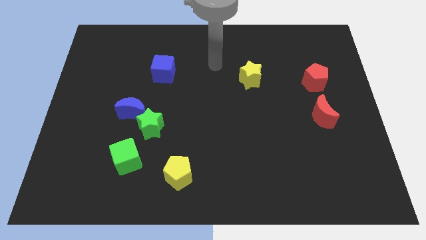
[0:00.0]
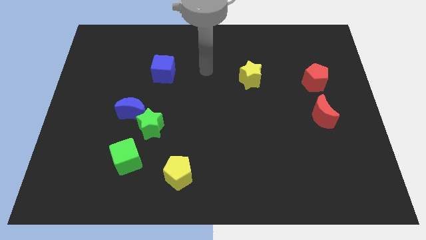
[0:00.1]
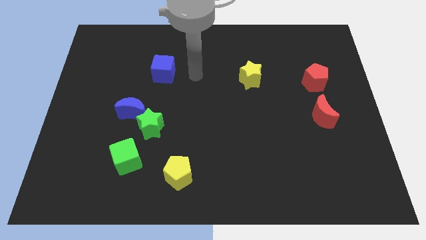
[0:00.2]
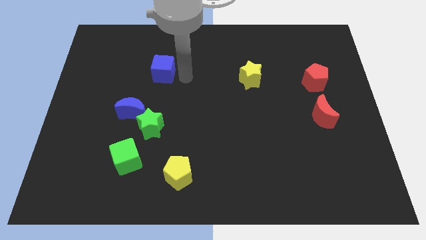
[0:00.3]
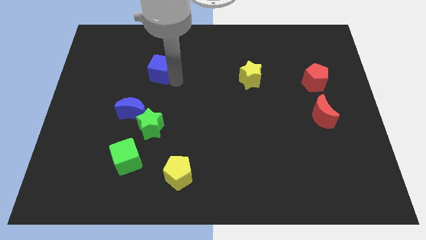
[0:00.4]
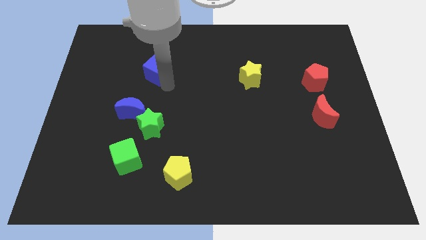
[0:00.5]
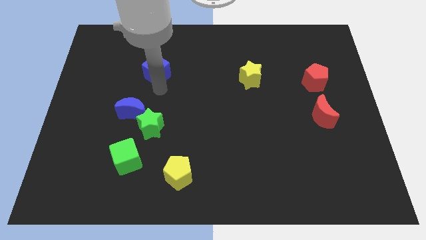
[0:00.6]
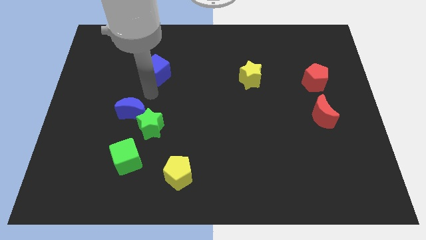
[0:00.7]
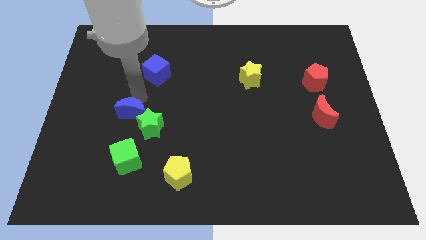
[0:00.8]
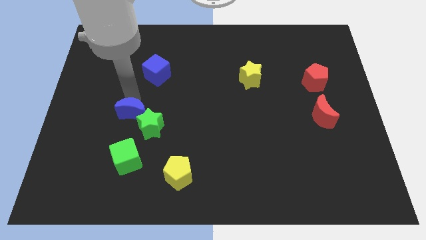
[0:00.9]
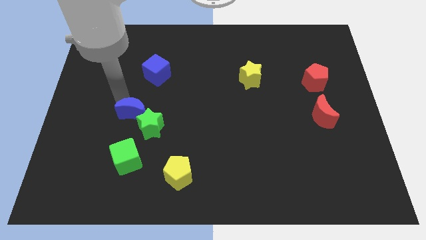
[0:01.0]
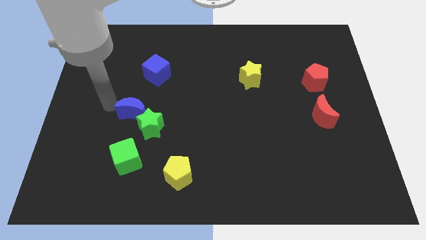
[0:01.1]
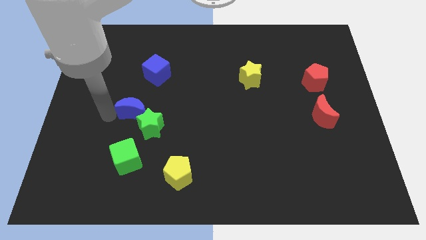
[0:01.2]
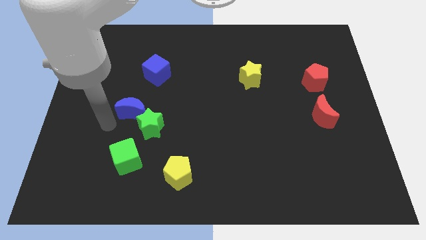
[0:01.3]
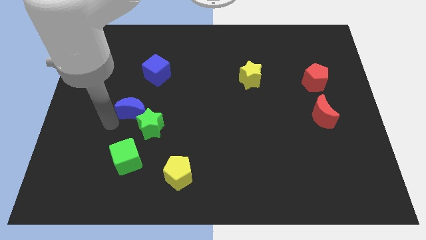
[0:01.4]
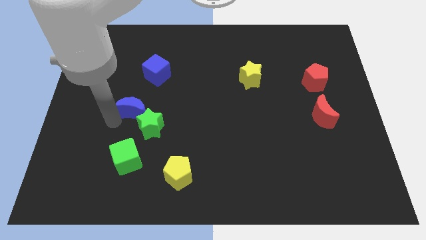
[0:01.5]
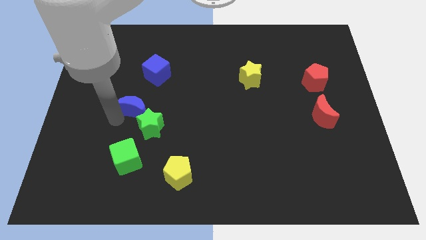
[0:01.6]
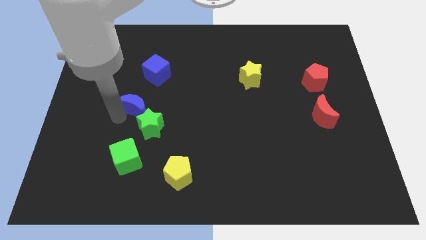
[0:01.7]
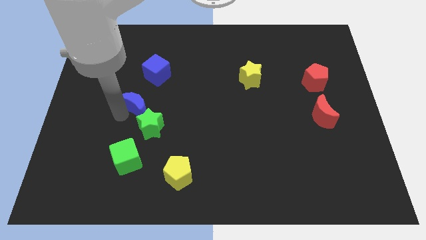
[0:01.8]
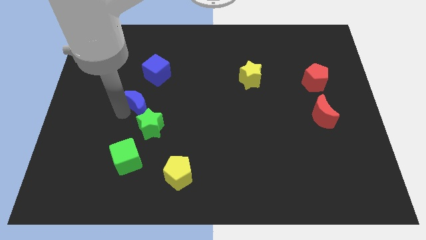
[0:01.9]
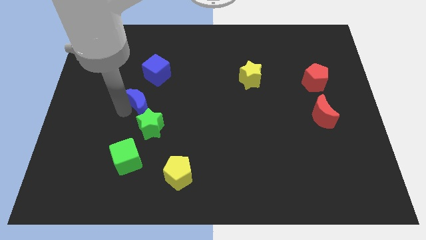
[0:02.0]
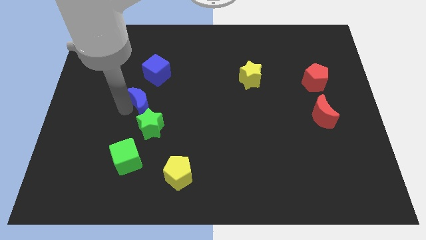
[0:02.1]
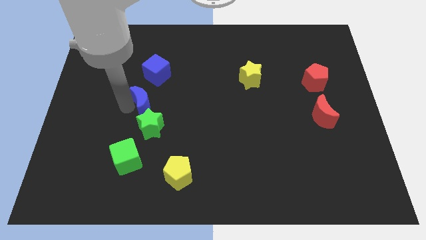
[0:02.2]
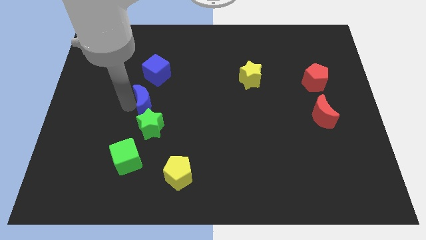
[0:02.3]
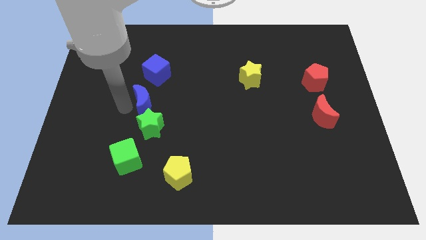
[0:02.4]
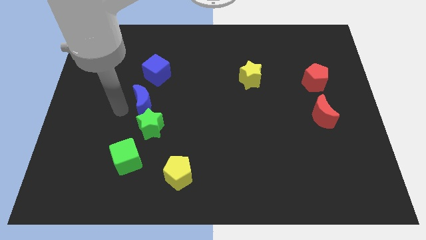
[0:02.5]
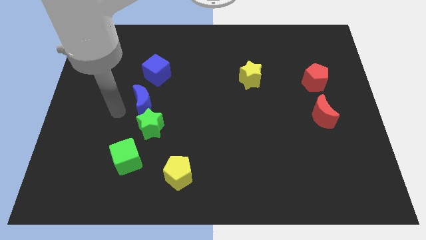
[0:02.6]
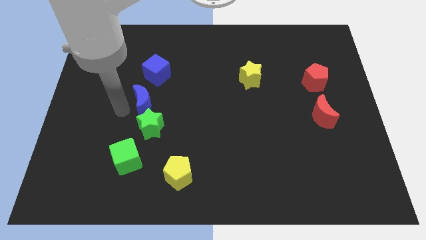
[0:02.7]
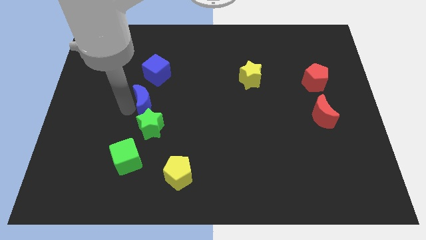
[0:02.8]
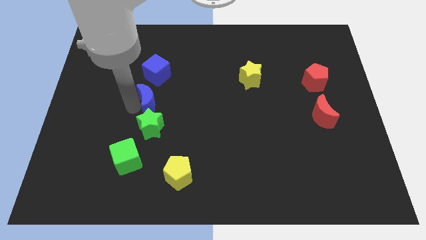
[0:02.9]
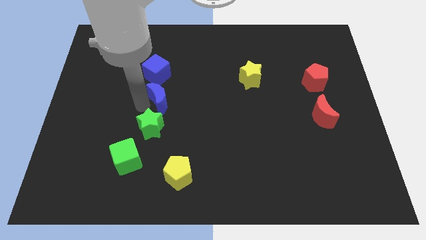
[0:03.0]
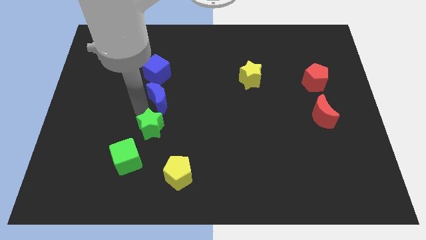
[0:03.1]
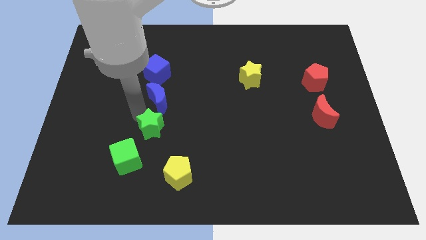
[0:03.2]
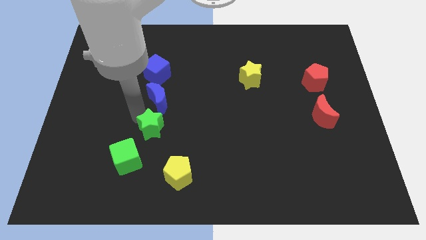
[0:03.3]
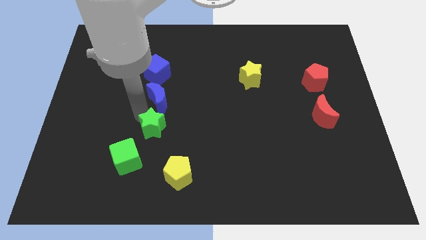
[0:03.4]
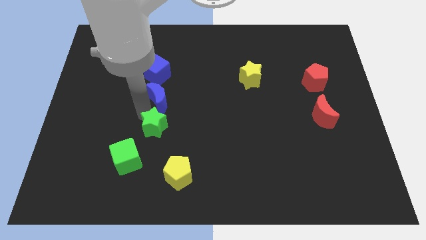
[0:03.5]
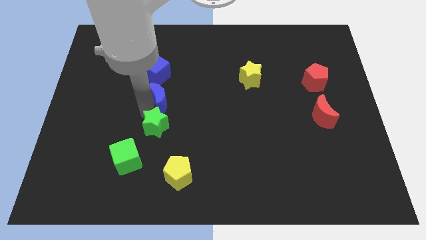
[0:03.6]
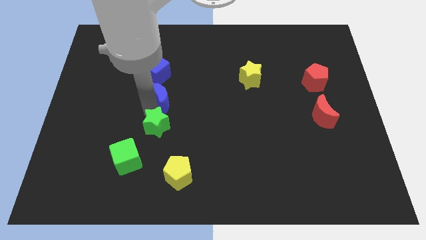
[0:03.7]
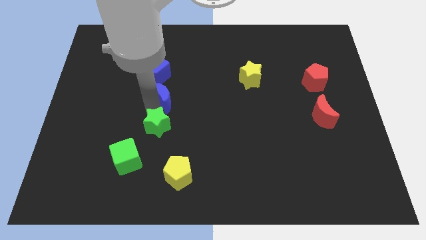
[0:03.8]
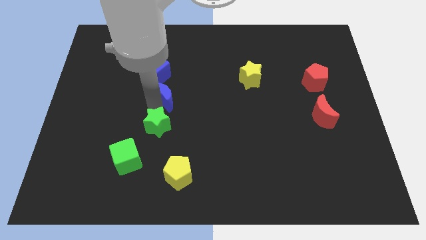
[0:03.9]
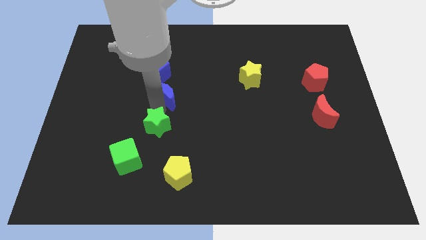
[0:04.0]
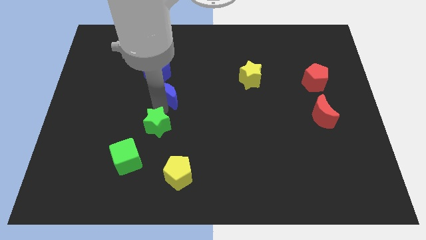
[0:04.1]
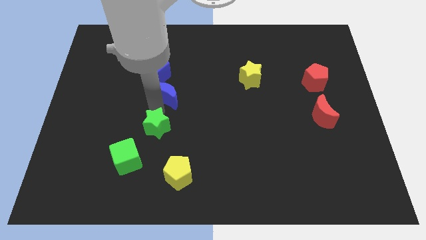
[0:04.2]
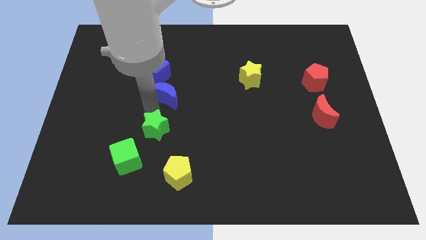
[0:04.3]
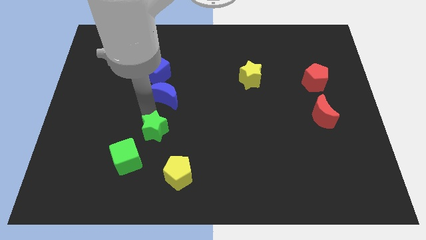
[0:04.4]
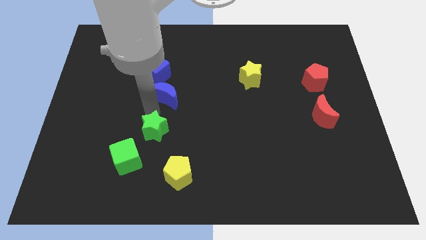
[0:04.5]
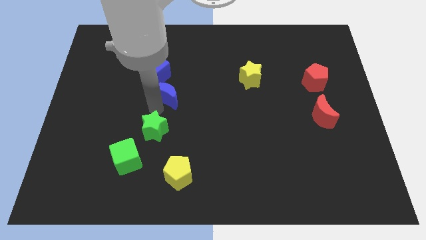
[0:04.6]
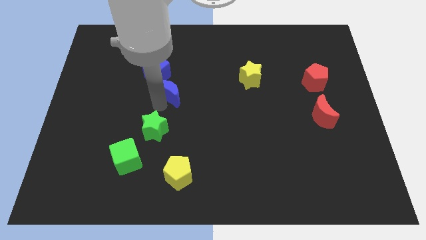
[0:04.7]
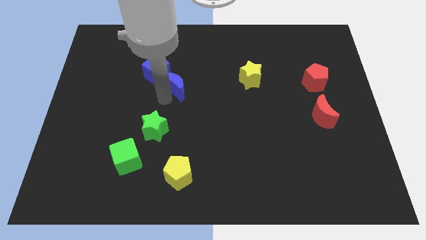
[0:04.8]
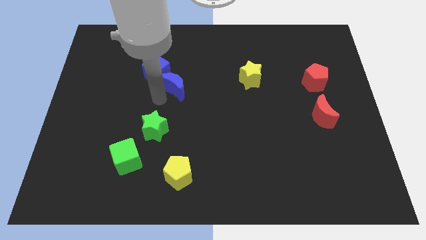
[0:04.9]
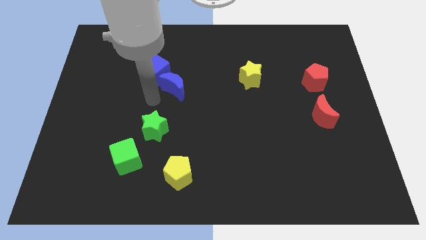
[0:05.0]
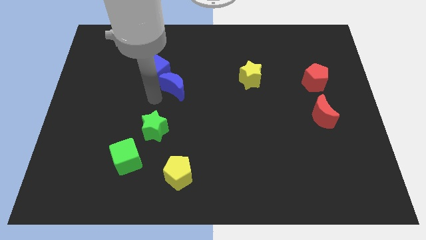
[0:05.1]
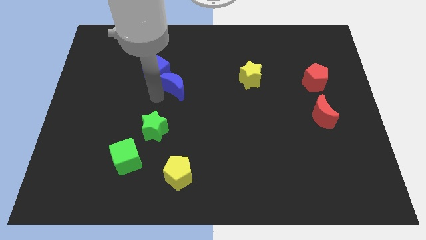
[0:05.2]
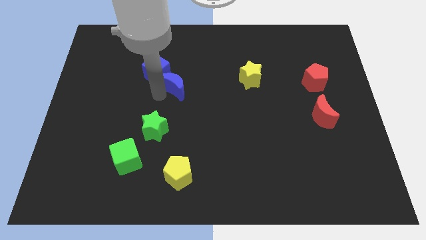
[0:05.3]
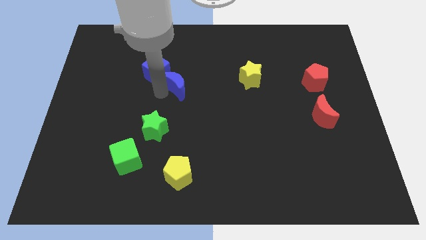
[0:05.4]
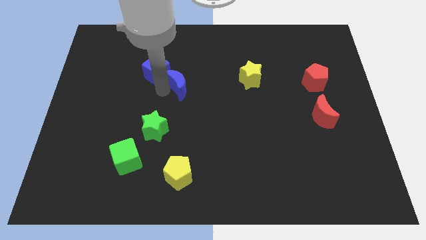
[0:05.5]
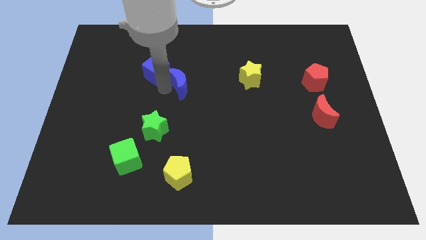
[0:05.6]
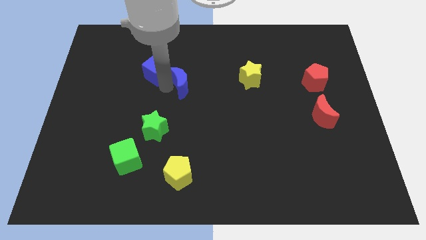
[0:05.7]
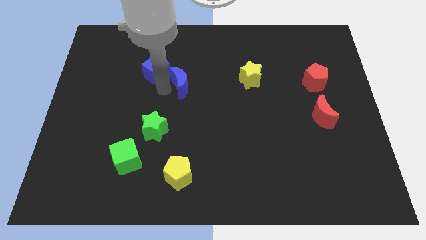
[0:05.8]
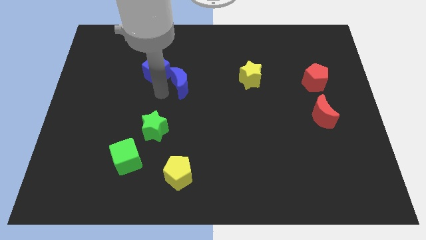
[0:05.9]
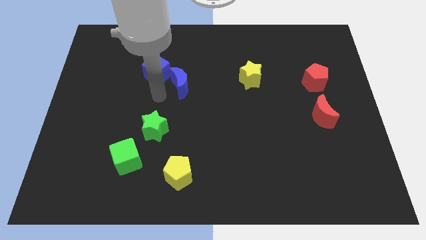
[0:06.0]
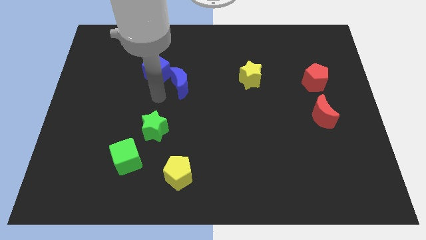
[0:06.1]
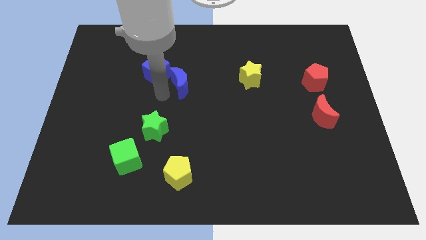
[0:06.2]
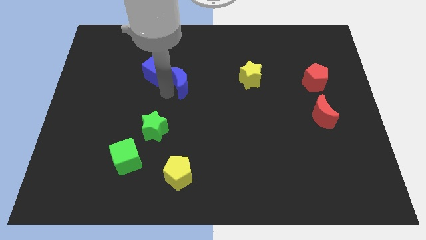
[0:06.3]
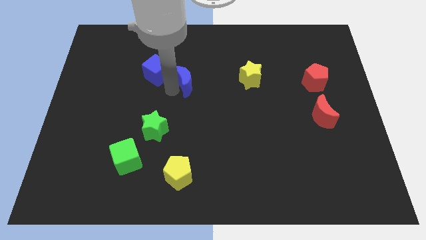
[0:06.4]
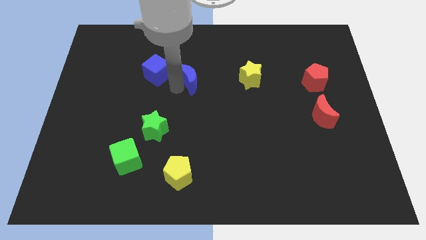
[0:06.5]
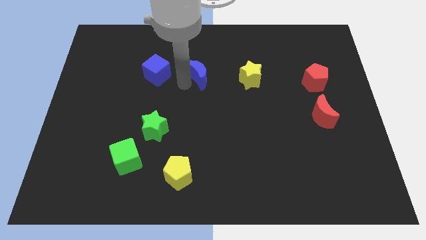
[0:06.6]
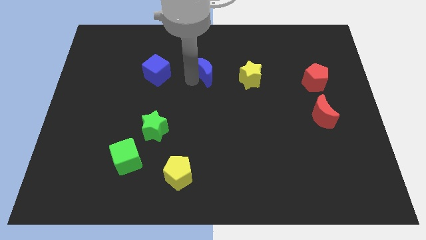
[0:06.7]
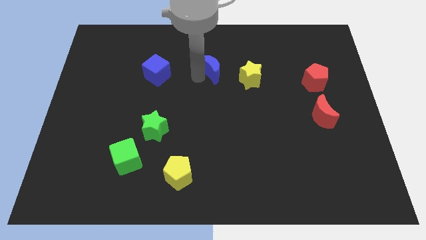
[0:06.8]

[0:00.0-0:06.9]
move the blue moon to the top left of the yellow star
